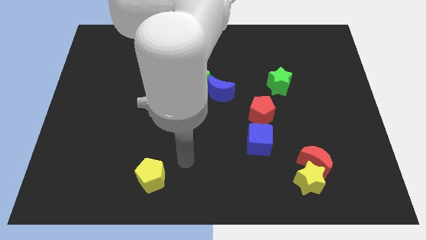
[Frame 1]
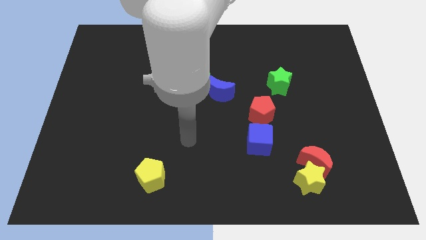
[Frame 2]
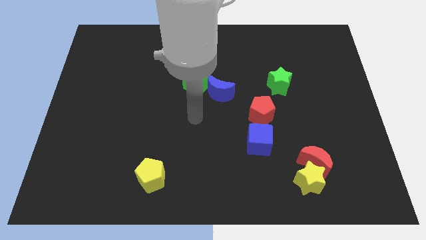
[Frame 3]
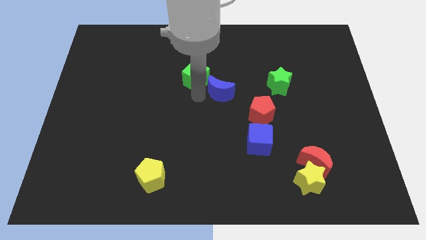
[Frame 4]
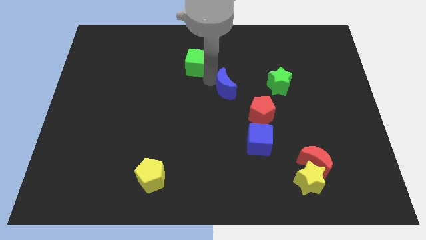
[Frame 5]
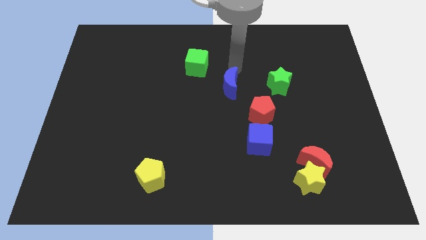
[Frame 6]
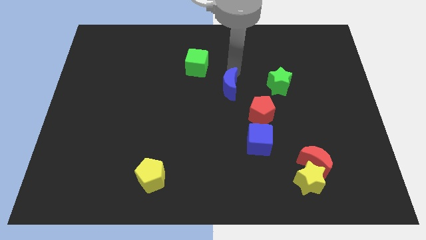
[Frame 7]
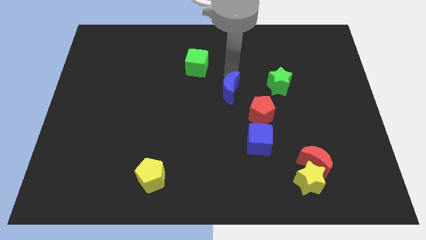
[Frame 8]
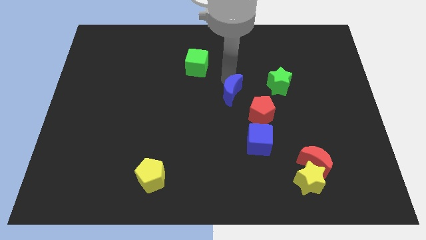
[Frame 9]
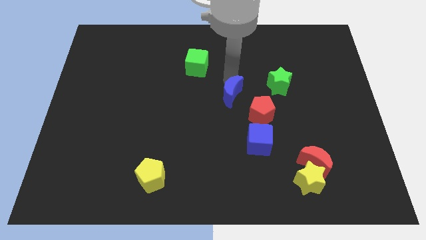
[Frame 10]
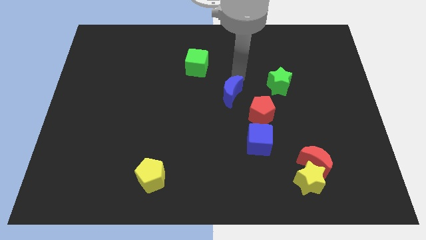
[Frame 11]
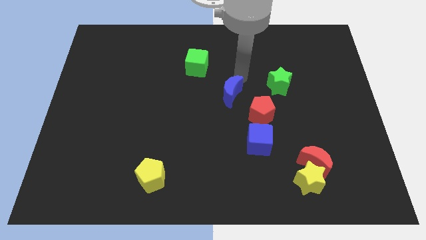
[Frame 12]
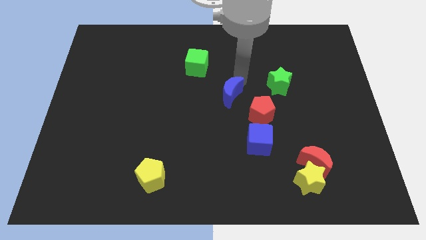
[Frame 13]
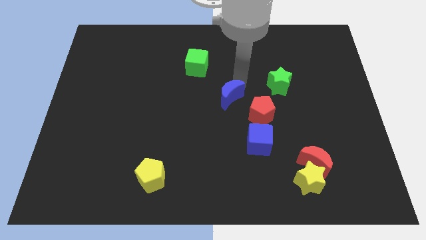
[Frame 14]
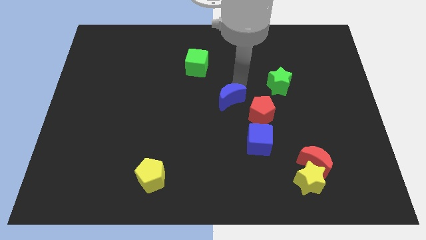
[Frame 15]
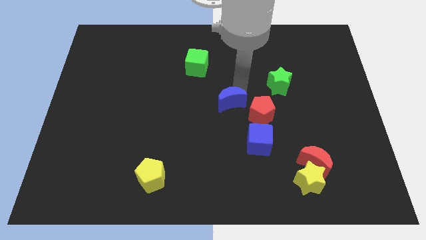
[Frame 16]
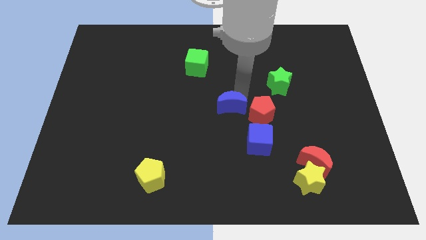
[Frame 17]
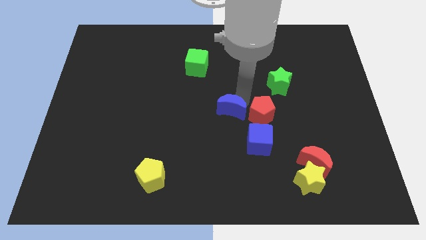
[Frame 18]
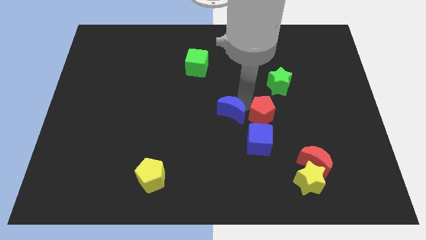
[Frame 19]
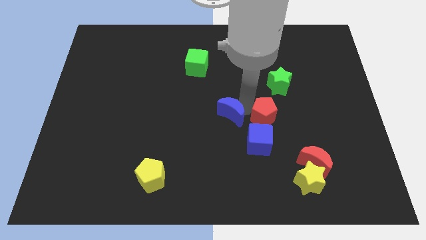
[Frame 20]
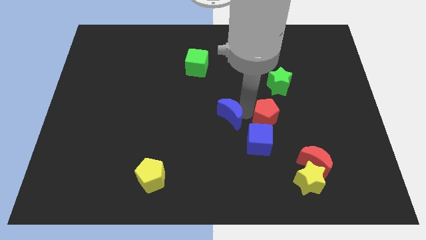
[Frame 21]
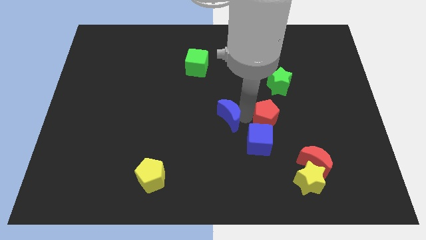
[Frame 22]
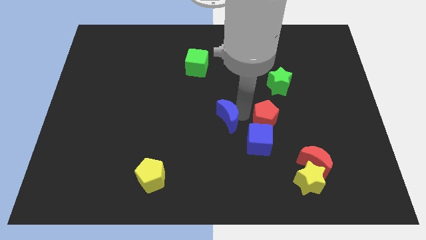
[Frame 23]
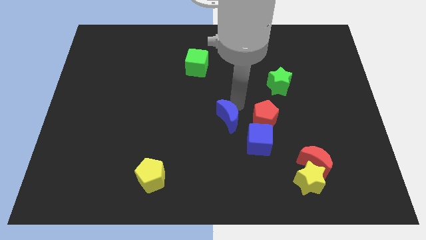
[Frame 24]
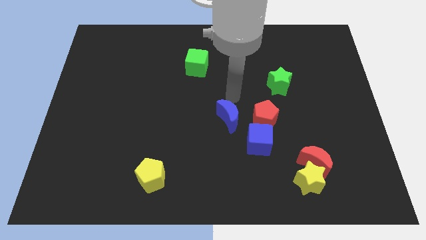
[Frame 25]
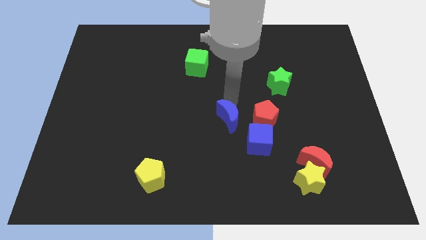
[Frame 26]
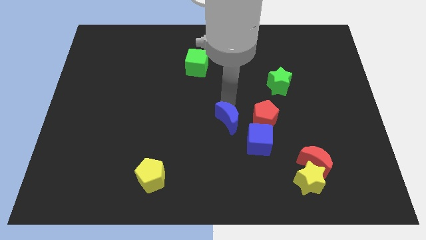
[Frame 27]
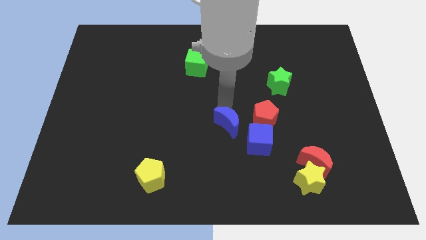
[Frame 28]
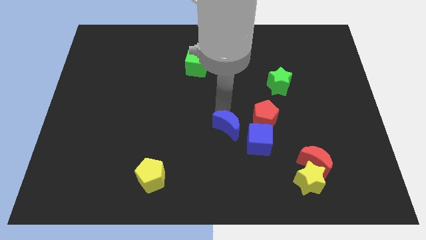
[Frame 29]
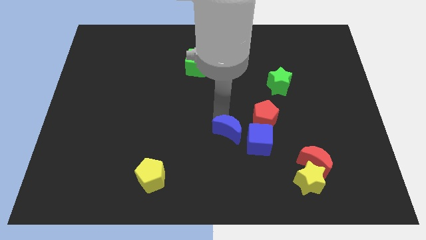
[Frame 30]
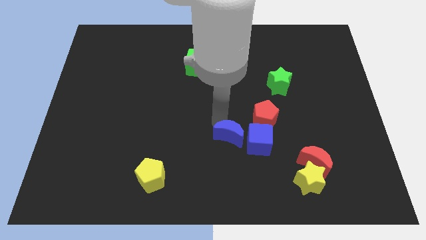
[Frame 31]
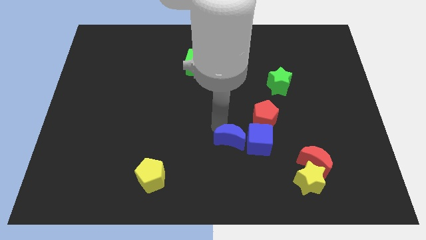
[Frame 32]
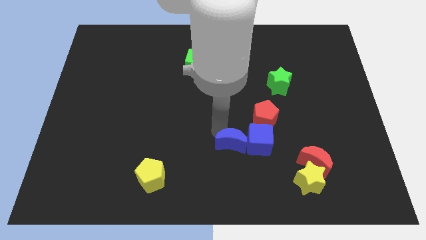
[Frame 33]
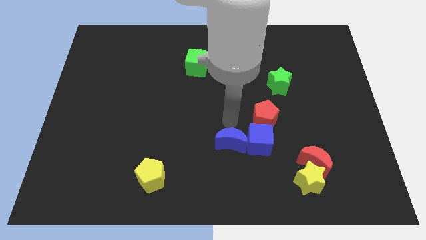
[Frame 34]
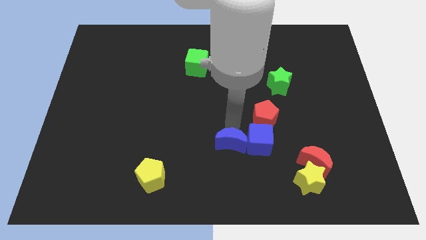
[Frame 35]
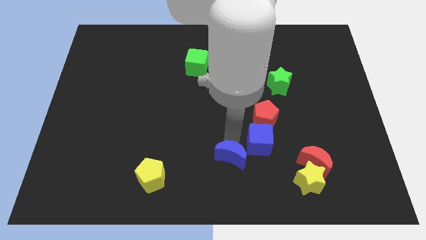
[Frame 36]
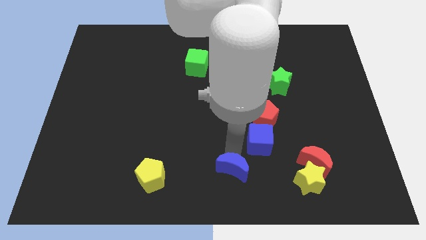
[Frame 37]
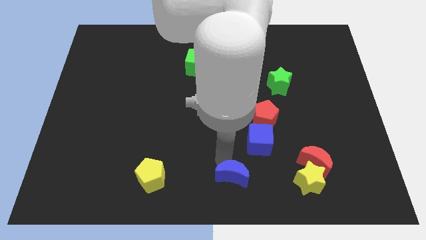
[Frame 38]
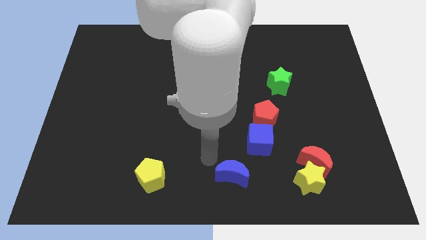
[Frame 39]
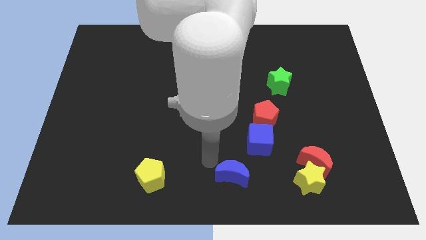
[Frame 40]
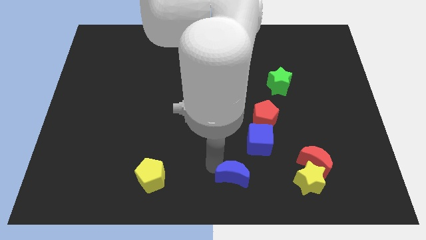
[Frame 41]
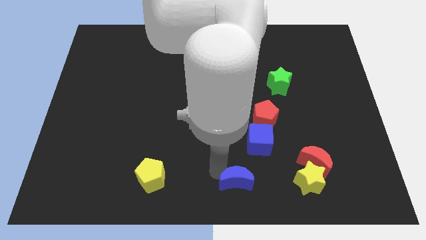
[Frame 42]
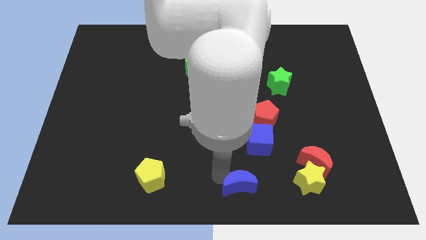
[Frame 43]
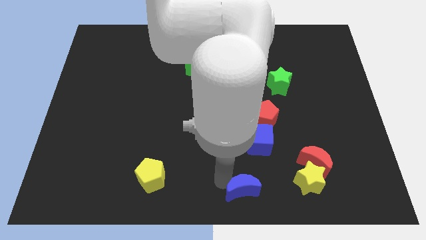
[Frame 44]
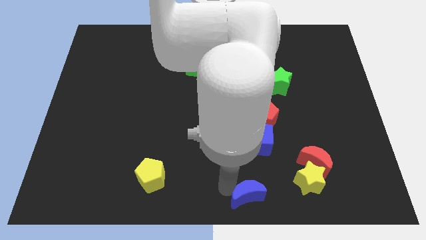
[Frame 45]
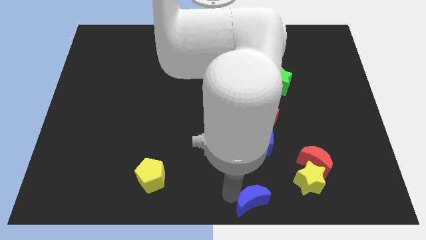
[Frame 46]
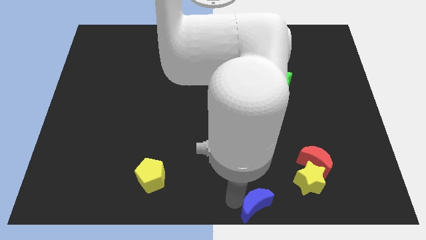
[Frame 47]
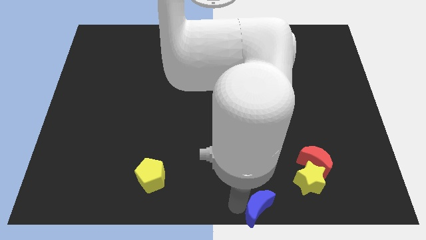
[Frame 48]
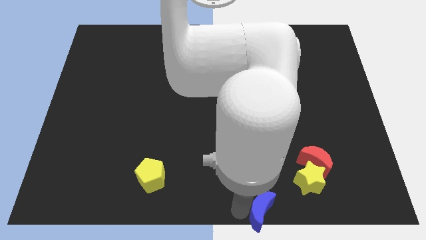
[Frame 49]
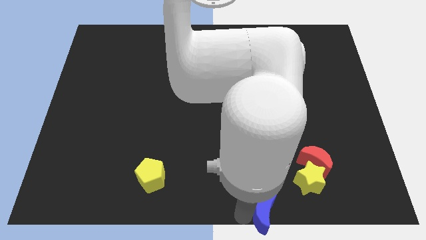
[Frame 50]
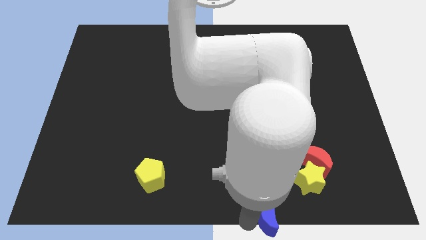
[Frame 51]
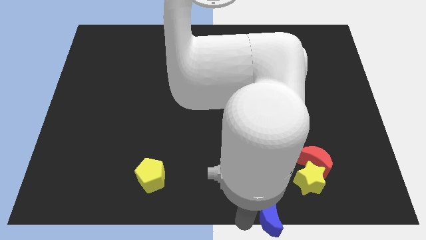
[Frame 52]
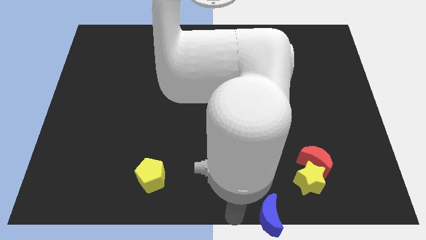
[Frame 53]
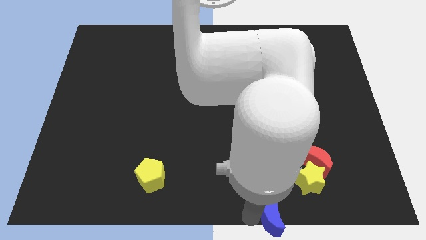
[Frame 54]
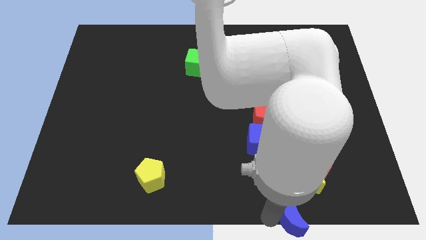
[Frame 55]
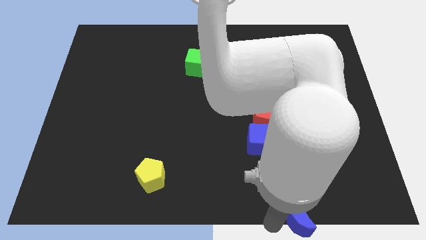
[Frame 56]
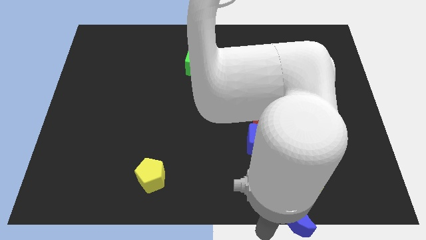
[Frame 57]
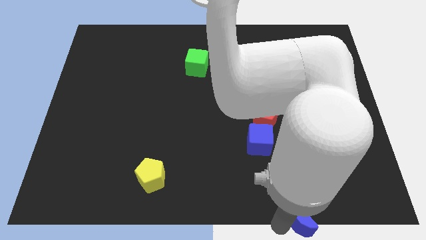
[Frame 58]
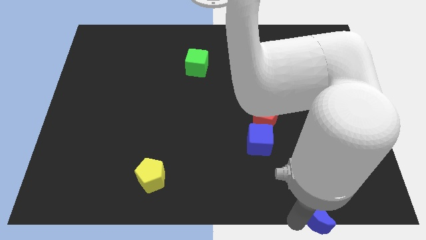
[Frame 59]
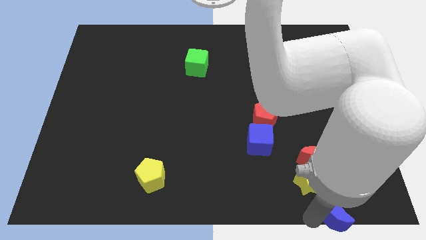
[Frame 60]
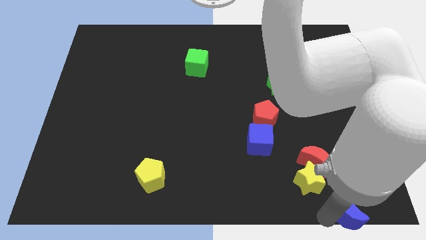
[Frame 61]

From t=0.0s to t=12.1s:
push the blue moon to the bottom right

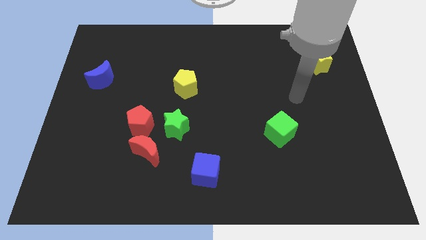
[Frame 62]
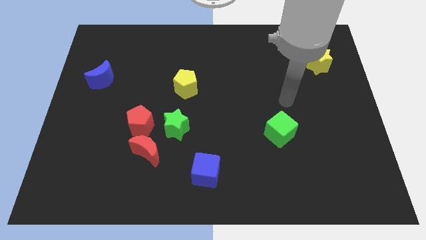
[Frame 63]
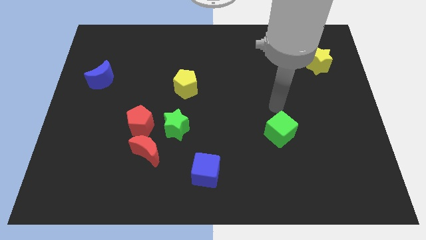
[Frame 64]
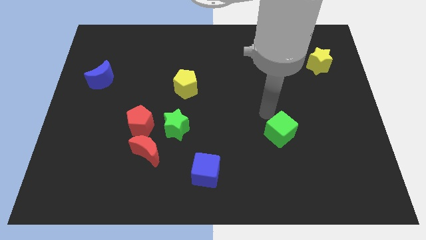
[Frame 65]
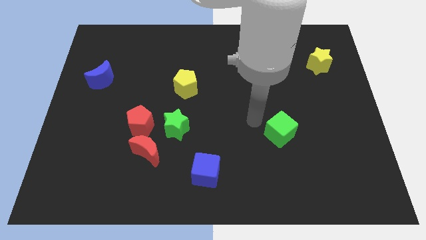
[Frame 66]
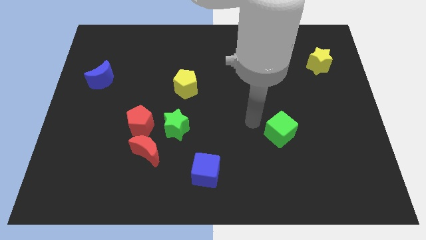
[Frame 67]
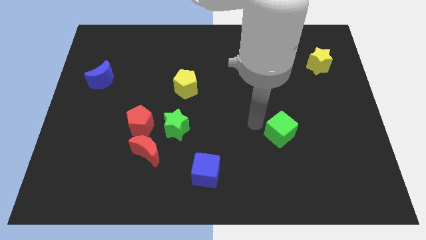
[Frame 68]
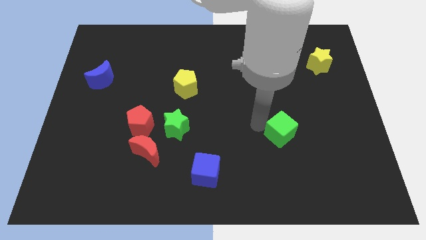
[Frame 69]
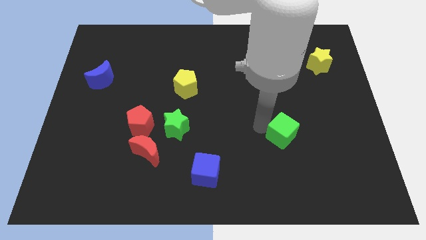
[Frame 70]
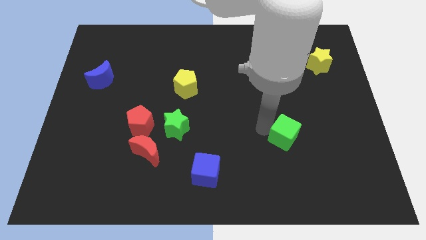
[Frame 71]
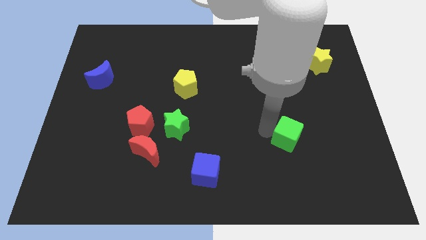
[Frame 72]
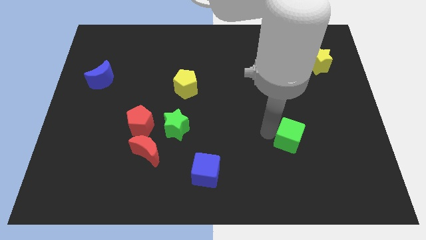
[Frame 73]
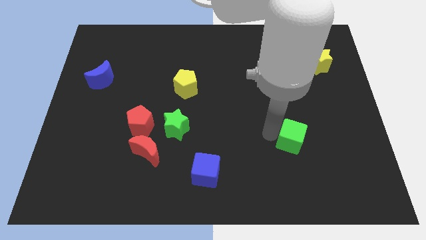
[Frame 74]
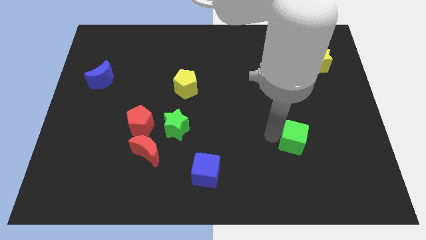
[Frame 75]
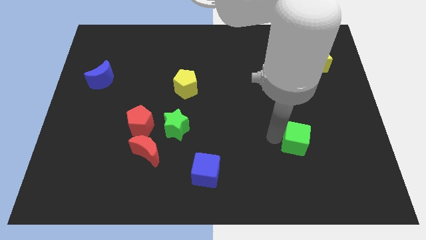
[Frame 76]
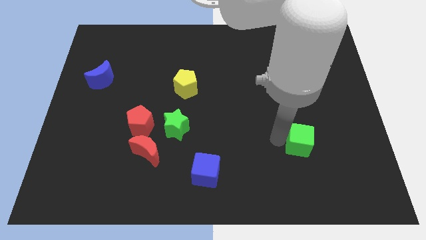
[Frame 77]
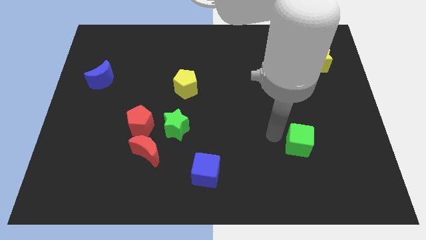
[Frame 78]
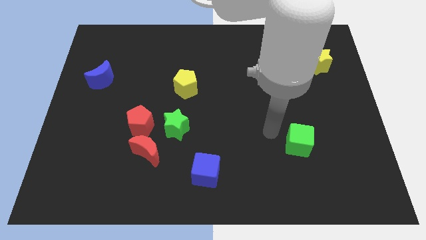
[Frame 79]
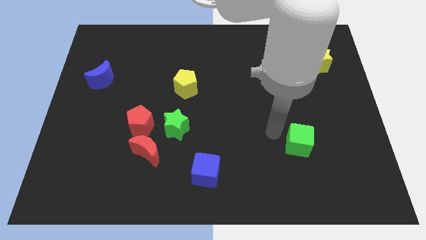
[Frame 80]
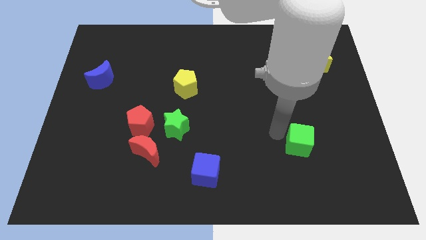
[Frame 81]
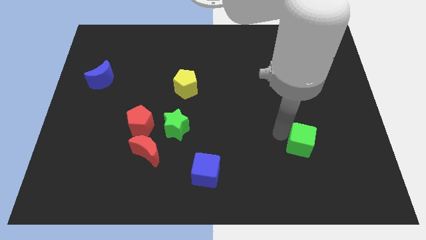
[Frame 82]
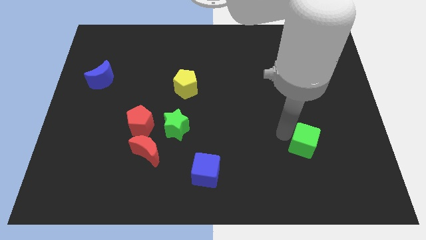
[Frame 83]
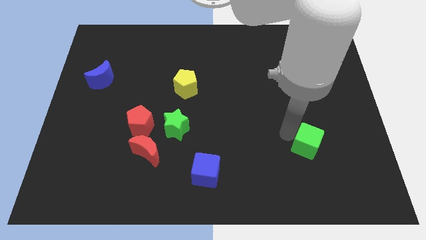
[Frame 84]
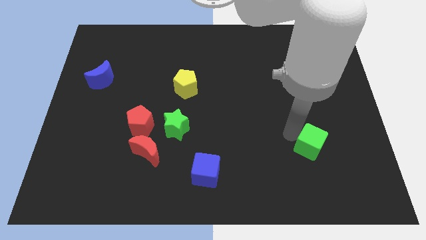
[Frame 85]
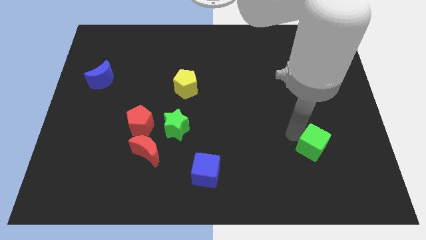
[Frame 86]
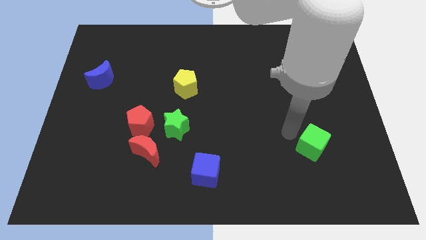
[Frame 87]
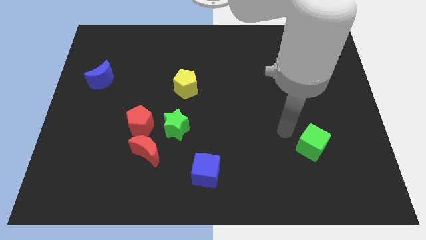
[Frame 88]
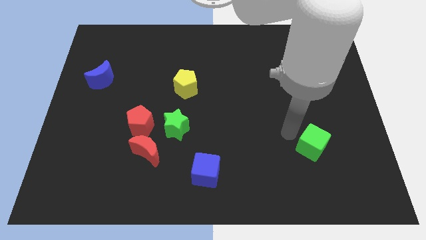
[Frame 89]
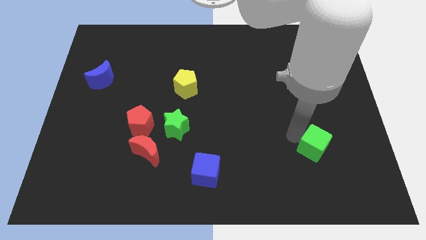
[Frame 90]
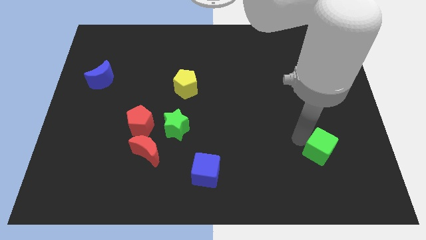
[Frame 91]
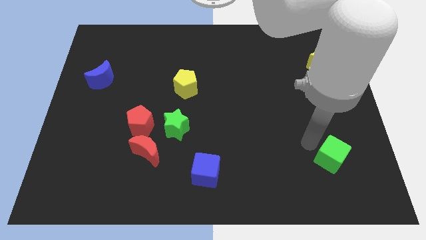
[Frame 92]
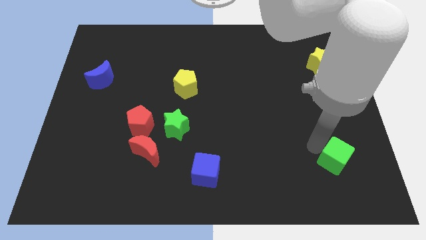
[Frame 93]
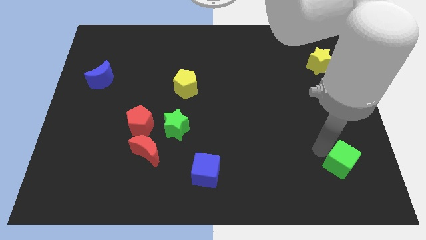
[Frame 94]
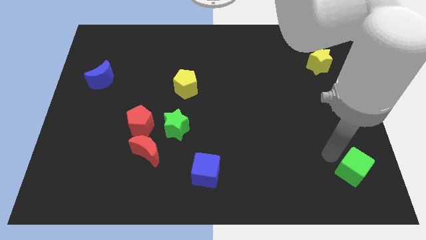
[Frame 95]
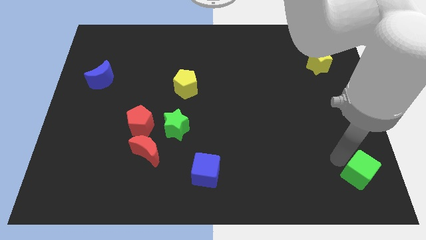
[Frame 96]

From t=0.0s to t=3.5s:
push the green cube to the bottom right corner
